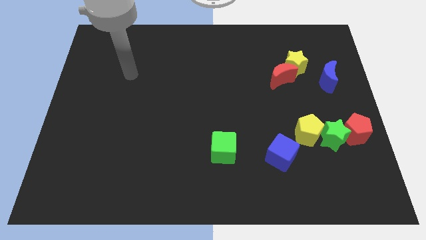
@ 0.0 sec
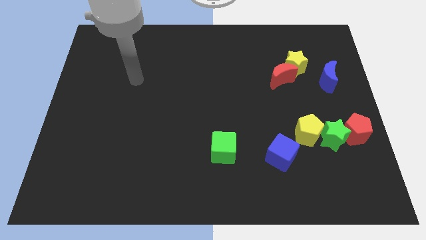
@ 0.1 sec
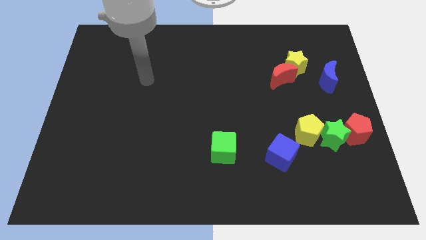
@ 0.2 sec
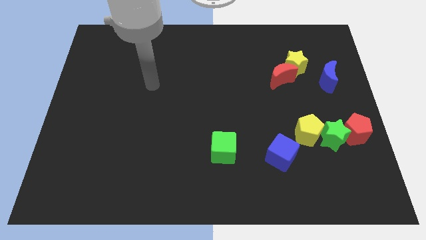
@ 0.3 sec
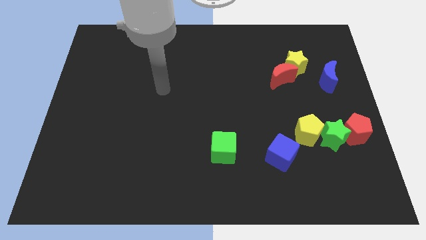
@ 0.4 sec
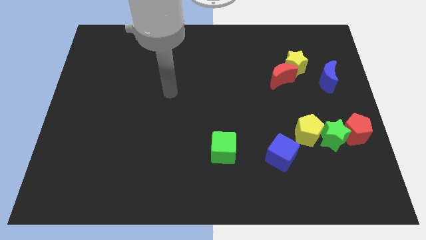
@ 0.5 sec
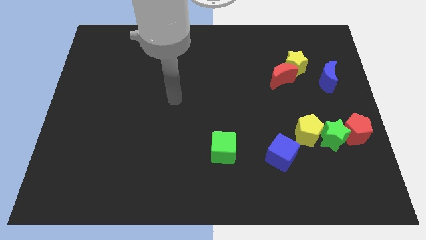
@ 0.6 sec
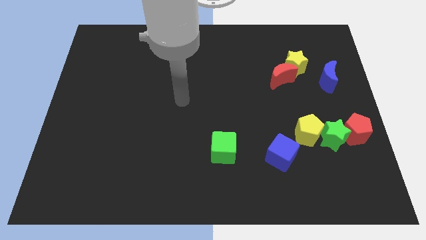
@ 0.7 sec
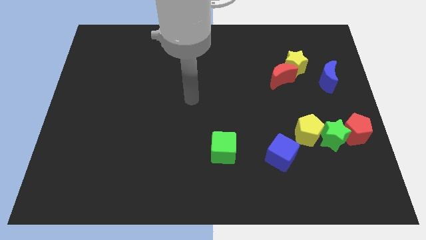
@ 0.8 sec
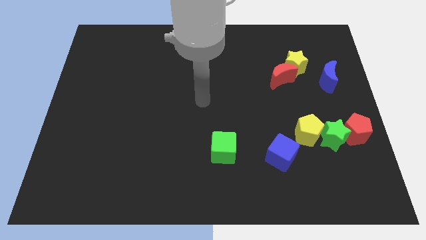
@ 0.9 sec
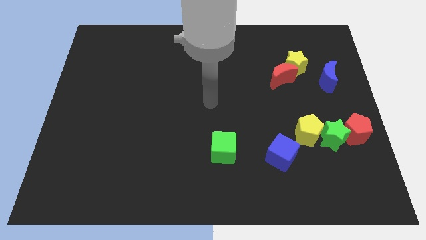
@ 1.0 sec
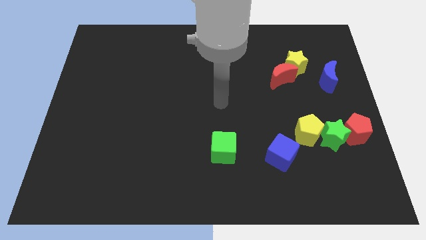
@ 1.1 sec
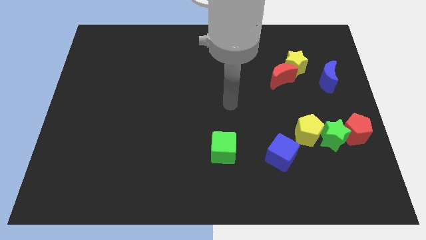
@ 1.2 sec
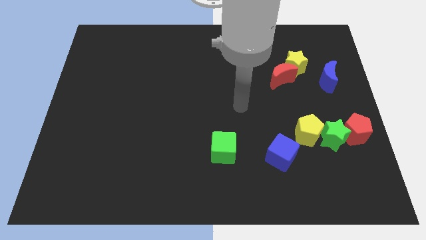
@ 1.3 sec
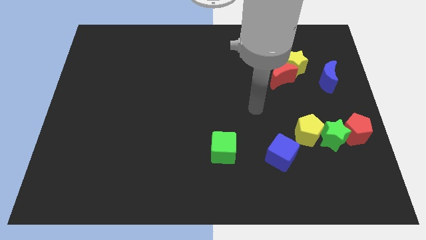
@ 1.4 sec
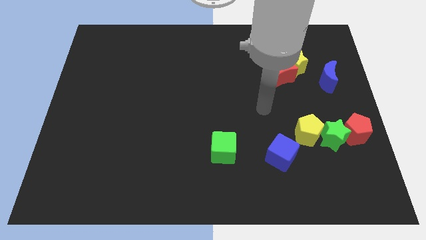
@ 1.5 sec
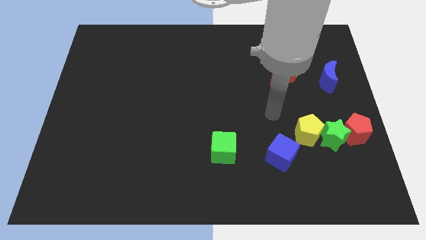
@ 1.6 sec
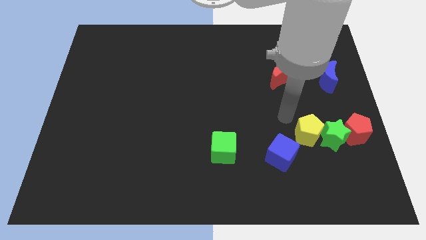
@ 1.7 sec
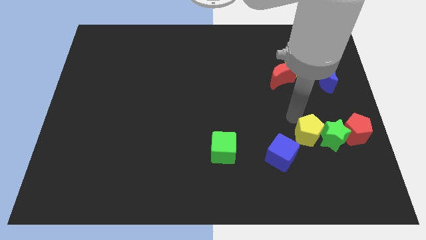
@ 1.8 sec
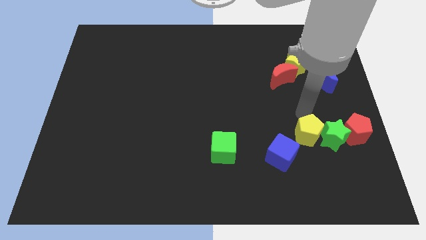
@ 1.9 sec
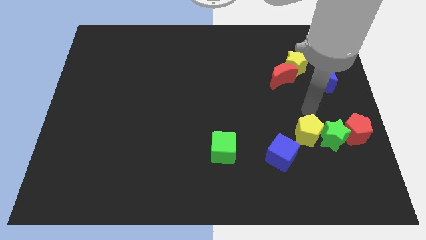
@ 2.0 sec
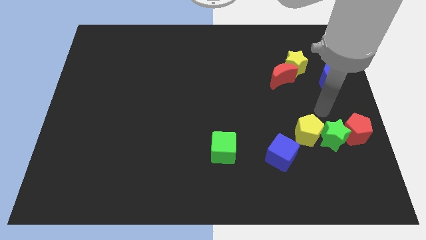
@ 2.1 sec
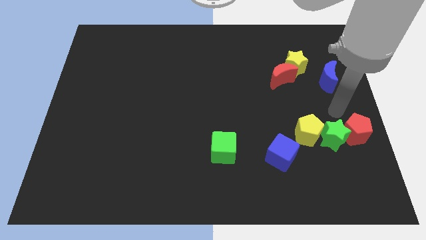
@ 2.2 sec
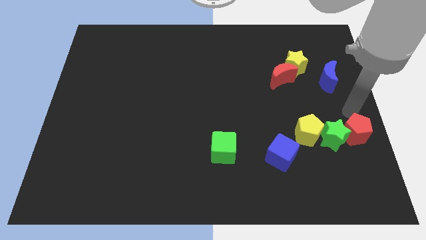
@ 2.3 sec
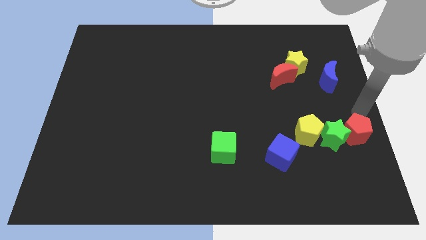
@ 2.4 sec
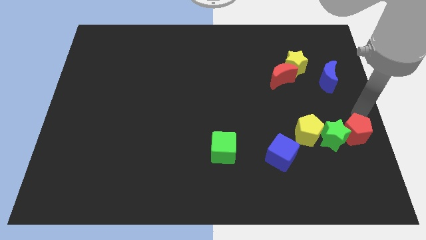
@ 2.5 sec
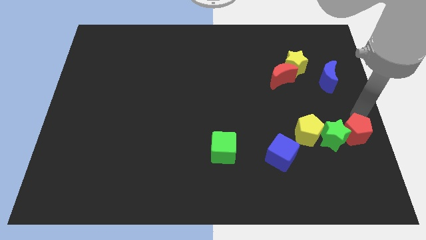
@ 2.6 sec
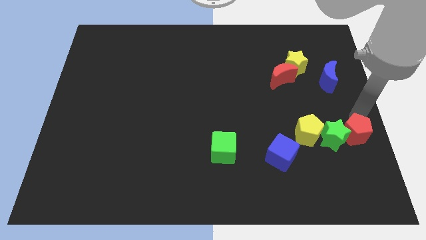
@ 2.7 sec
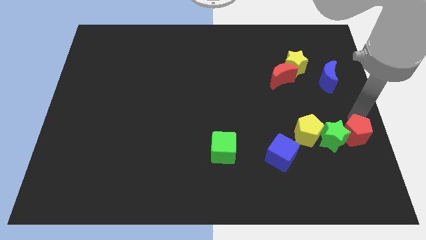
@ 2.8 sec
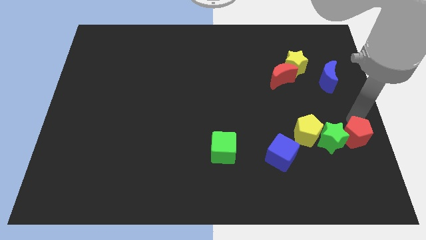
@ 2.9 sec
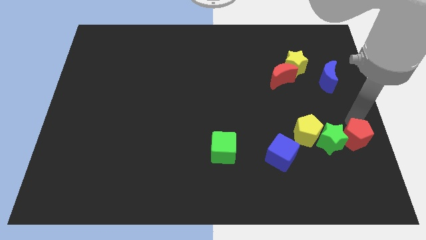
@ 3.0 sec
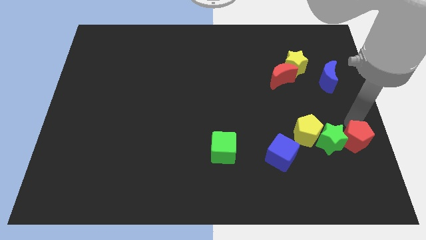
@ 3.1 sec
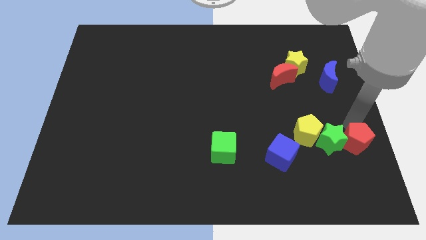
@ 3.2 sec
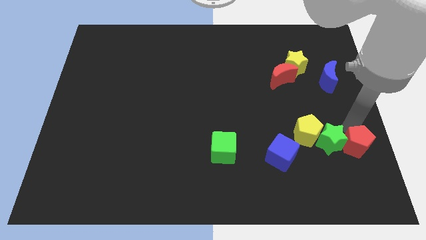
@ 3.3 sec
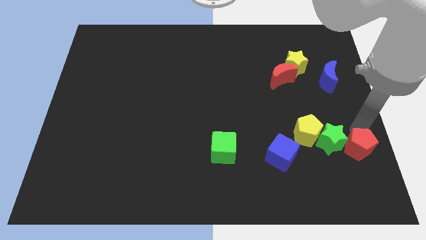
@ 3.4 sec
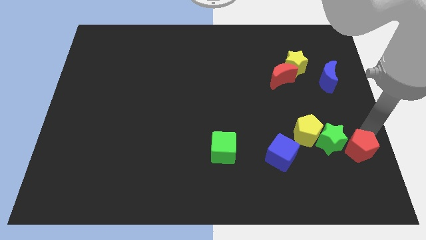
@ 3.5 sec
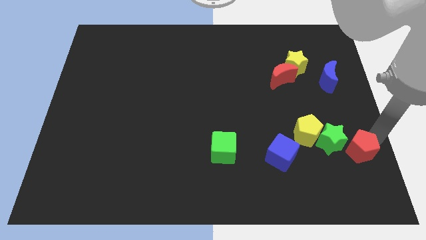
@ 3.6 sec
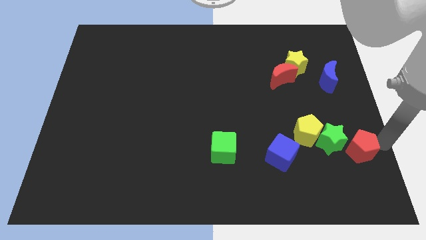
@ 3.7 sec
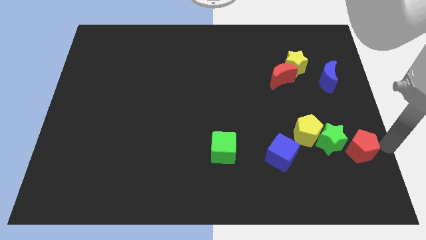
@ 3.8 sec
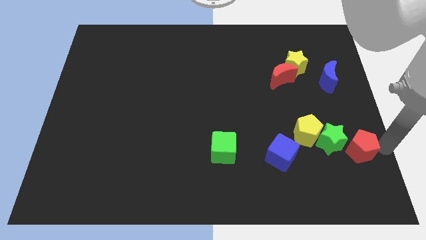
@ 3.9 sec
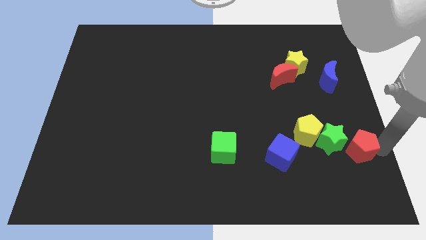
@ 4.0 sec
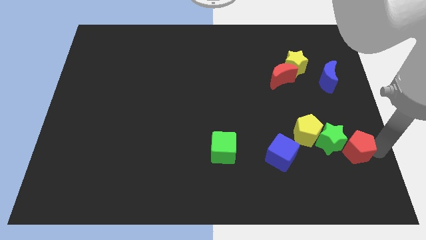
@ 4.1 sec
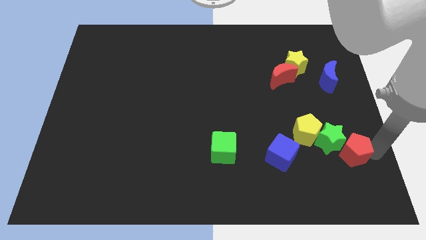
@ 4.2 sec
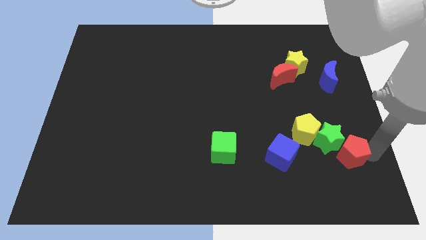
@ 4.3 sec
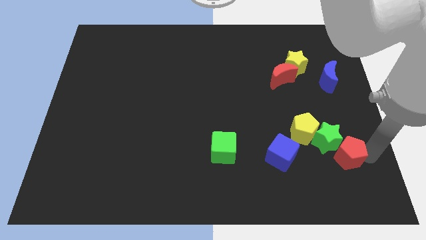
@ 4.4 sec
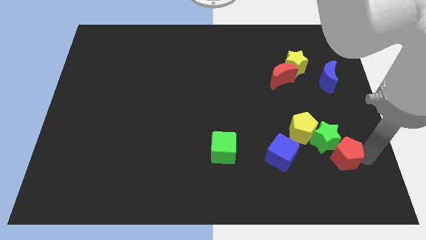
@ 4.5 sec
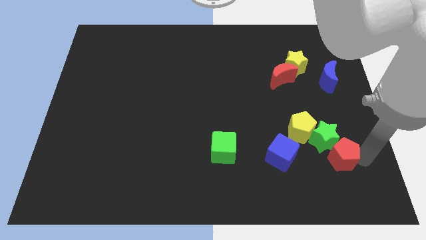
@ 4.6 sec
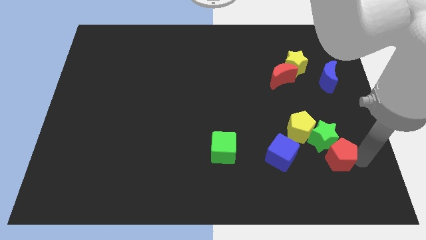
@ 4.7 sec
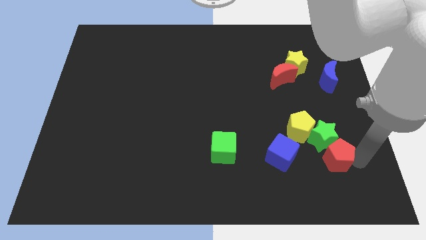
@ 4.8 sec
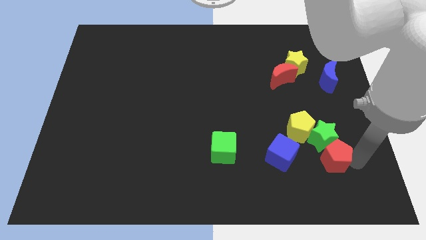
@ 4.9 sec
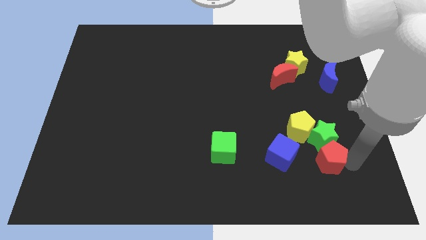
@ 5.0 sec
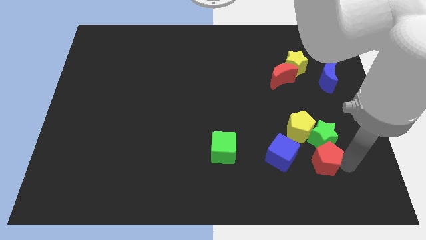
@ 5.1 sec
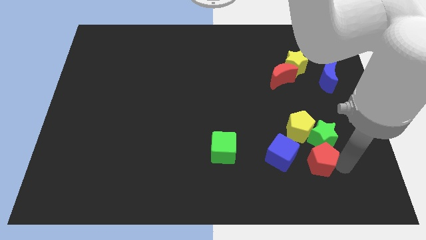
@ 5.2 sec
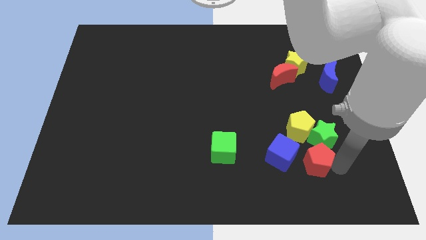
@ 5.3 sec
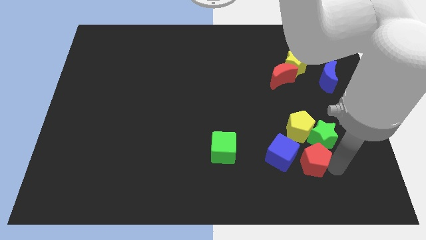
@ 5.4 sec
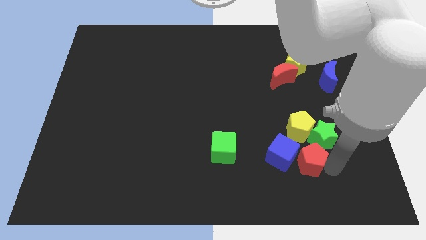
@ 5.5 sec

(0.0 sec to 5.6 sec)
put the red pentagon to the blue cube

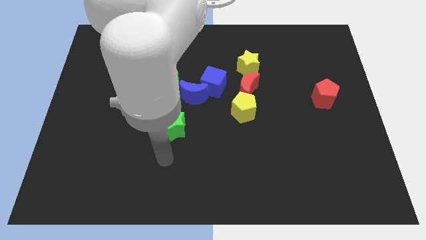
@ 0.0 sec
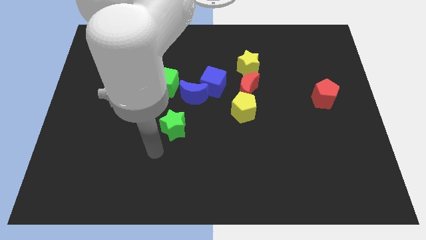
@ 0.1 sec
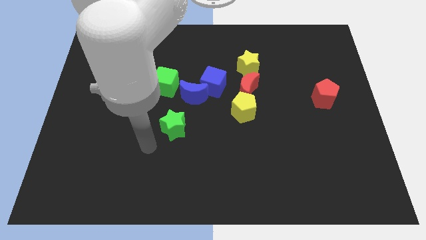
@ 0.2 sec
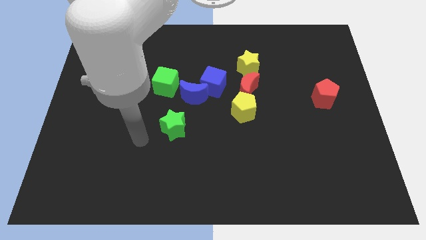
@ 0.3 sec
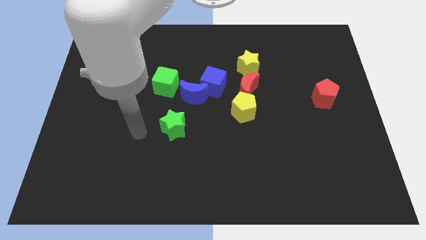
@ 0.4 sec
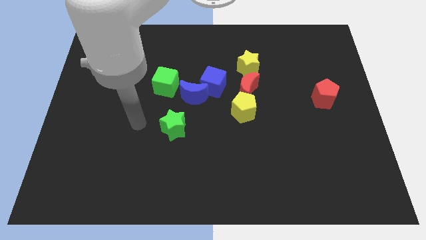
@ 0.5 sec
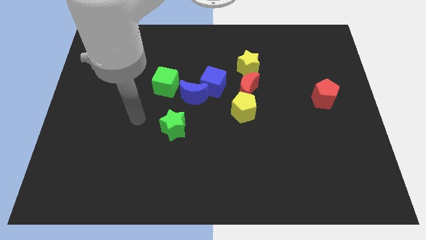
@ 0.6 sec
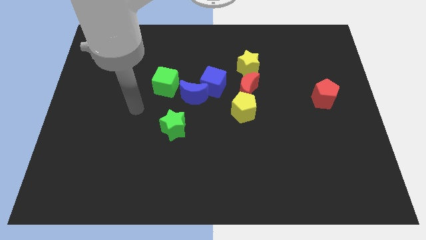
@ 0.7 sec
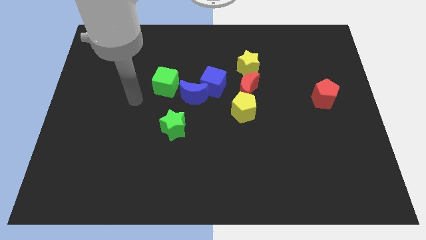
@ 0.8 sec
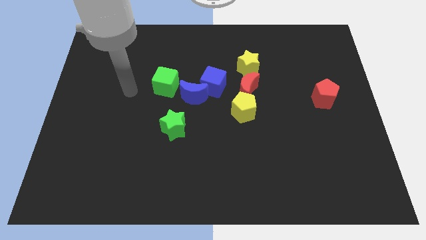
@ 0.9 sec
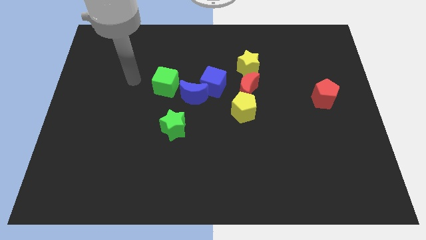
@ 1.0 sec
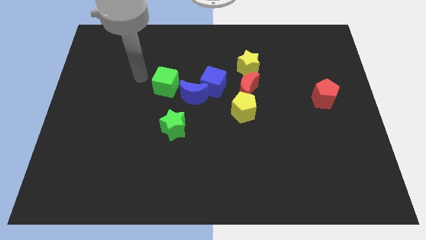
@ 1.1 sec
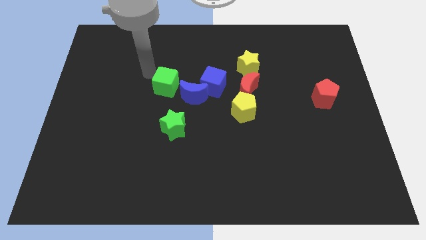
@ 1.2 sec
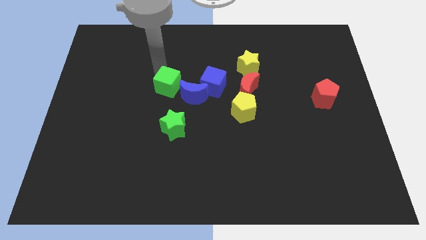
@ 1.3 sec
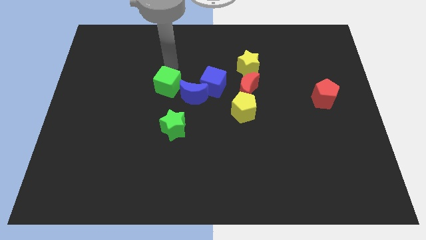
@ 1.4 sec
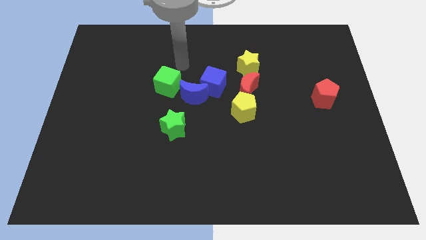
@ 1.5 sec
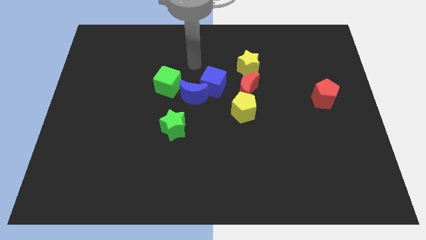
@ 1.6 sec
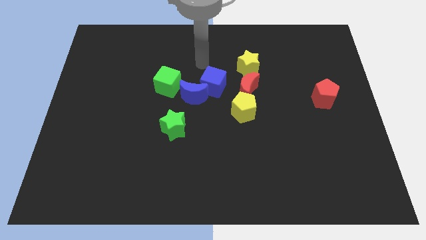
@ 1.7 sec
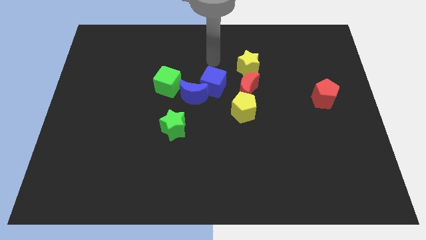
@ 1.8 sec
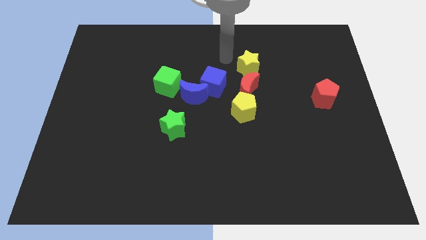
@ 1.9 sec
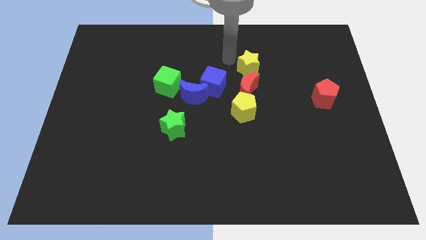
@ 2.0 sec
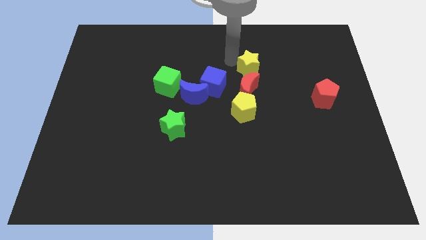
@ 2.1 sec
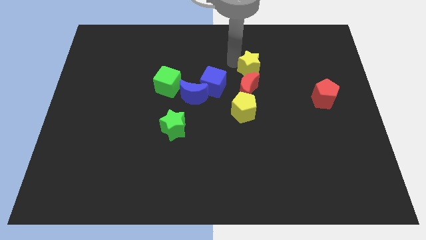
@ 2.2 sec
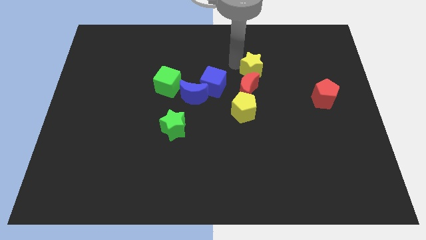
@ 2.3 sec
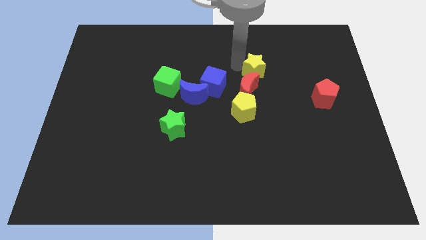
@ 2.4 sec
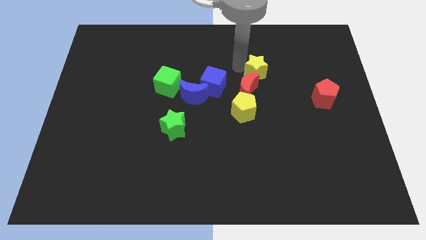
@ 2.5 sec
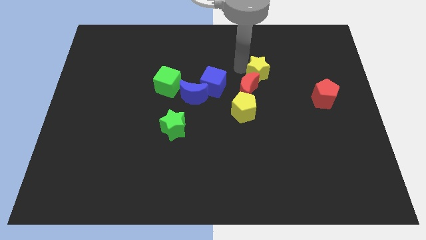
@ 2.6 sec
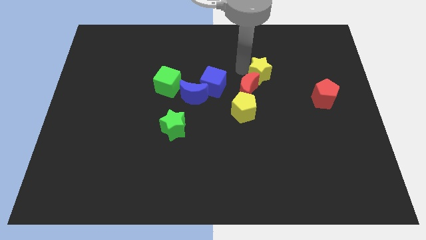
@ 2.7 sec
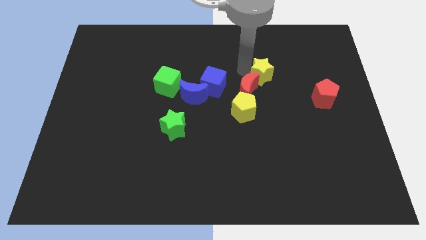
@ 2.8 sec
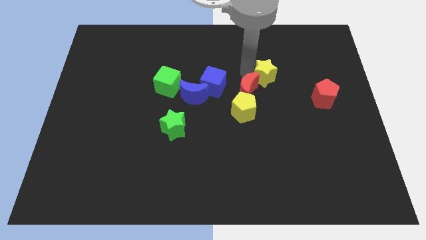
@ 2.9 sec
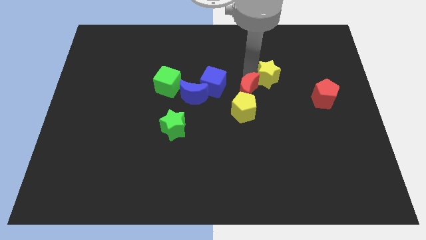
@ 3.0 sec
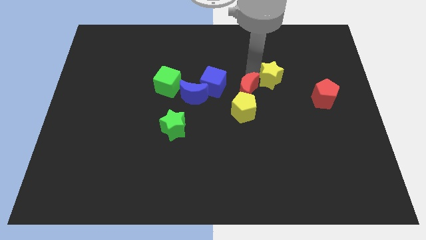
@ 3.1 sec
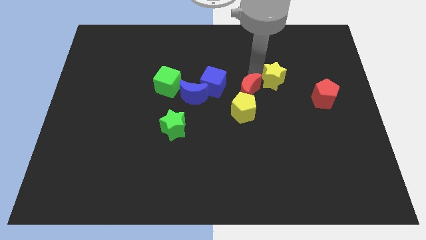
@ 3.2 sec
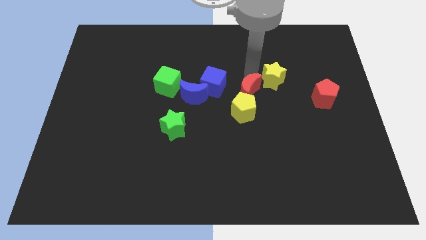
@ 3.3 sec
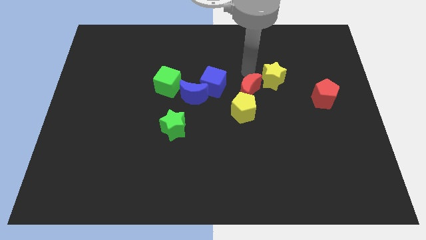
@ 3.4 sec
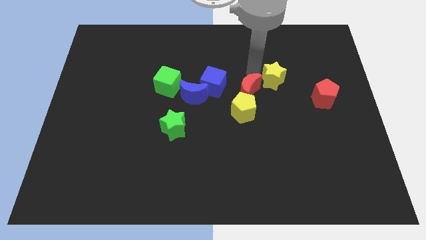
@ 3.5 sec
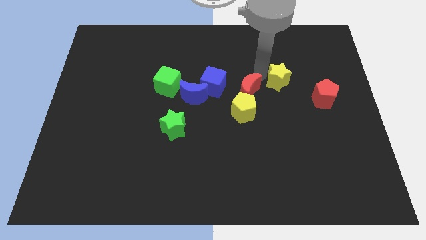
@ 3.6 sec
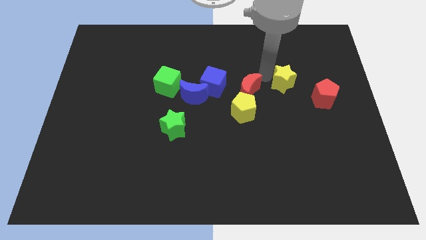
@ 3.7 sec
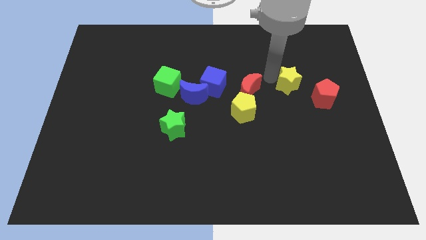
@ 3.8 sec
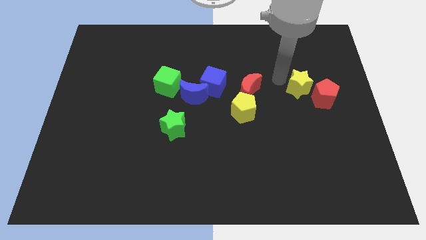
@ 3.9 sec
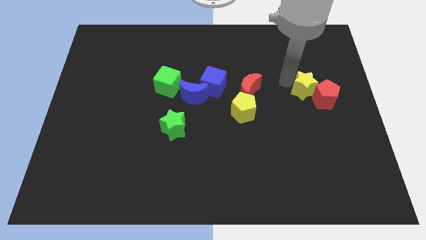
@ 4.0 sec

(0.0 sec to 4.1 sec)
push the yellow star towards the red pentagon
